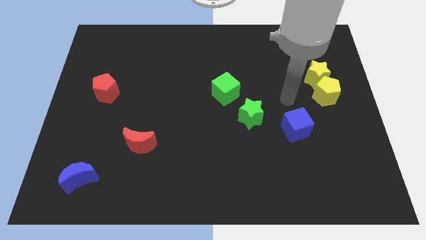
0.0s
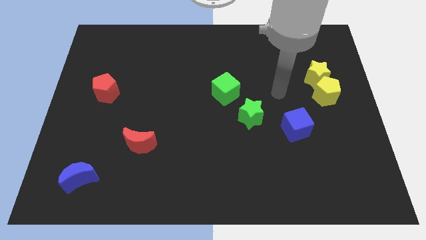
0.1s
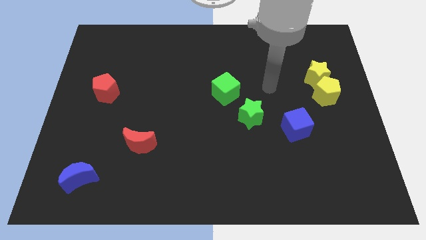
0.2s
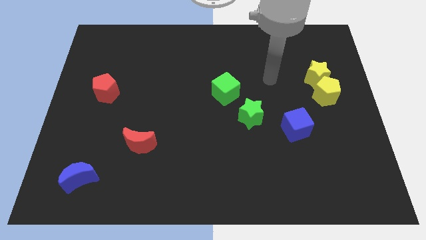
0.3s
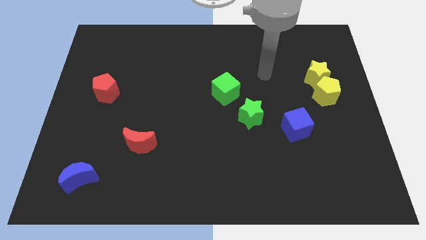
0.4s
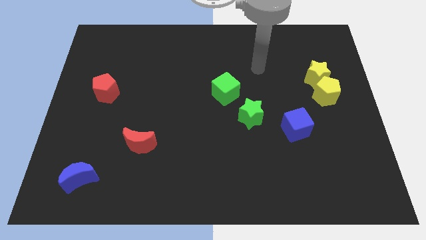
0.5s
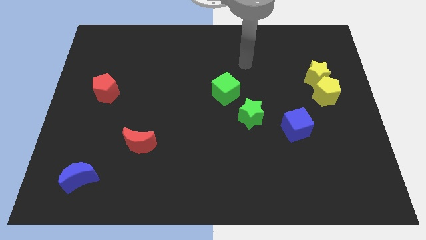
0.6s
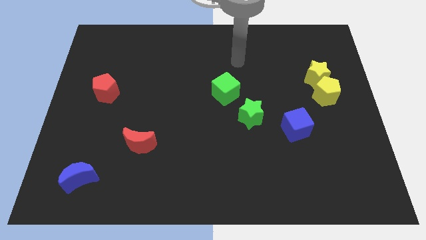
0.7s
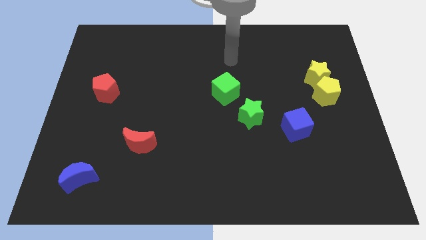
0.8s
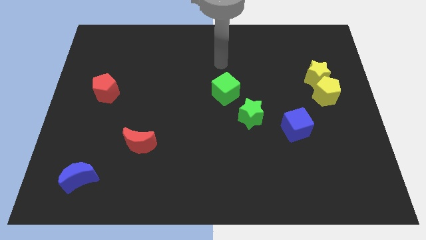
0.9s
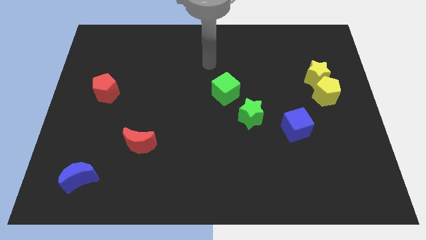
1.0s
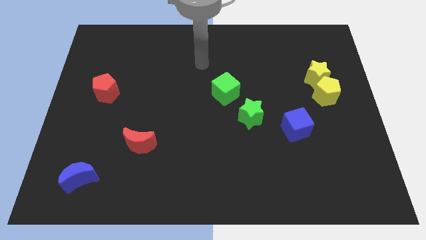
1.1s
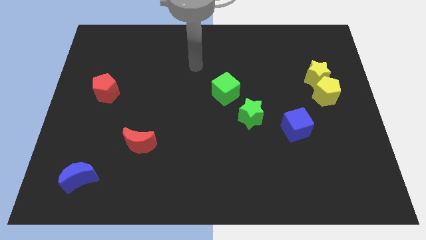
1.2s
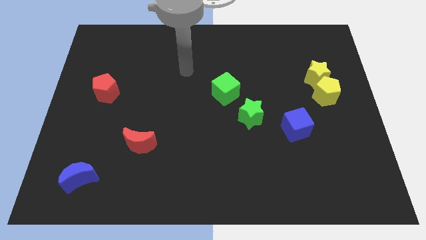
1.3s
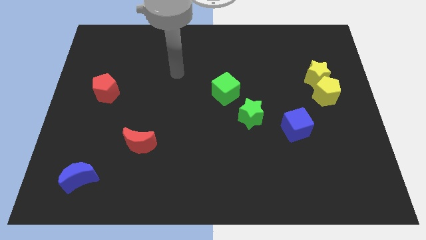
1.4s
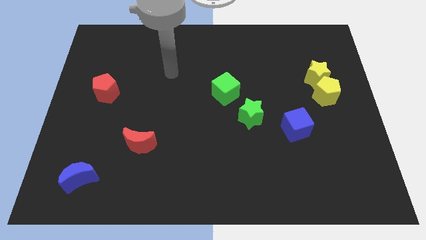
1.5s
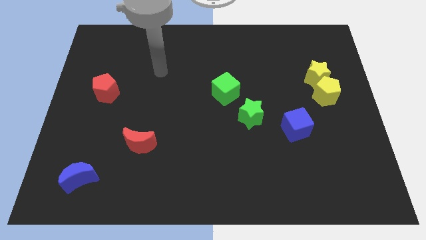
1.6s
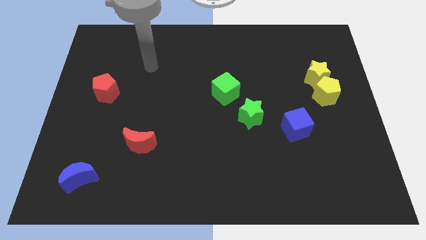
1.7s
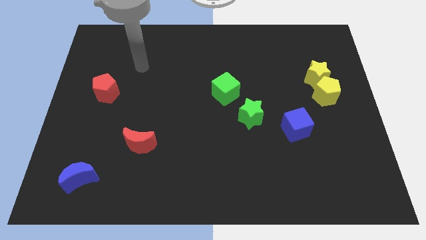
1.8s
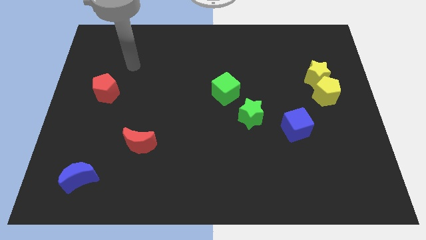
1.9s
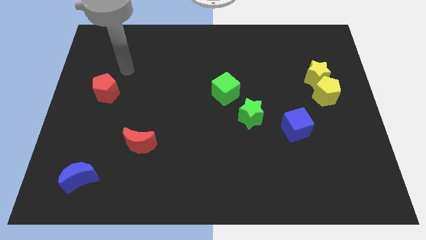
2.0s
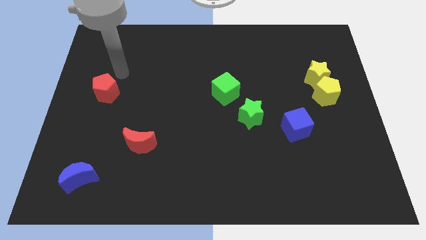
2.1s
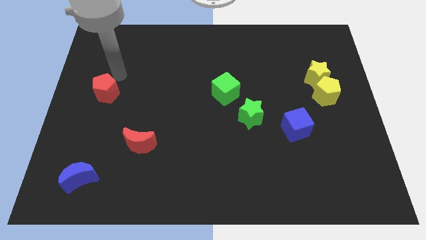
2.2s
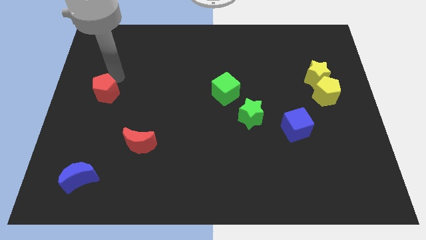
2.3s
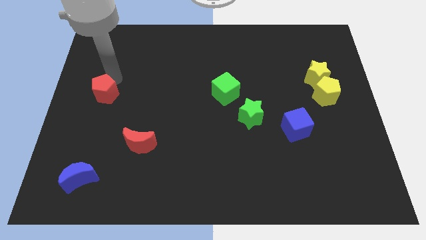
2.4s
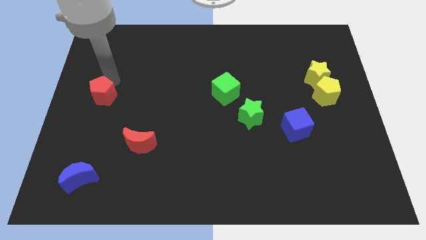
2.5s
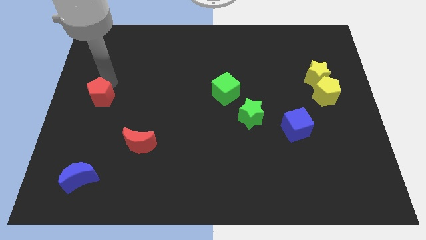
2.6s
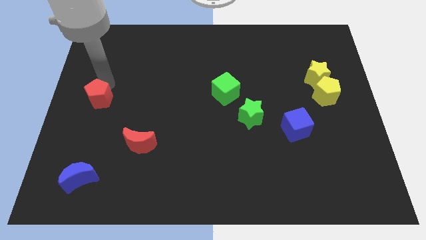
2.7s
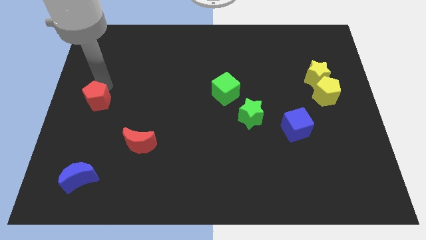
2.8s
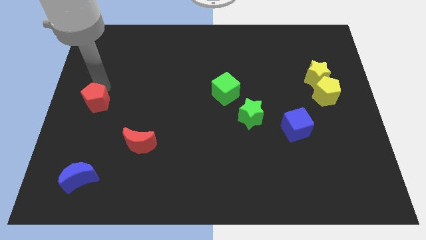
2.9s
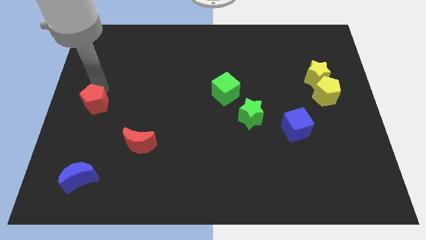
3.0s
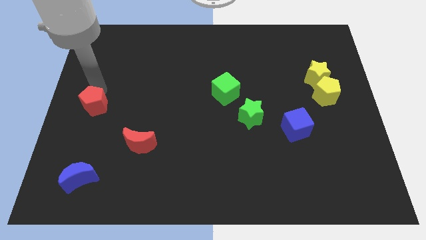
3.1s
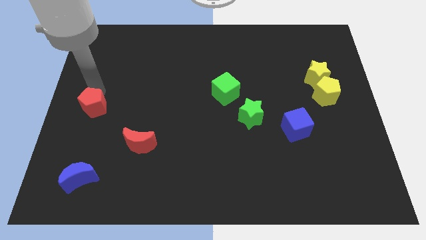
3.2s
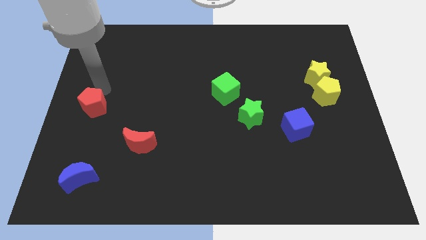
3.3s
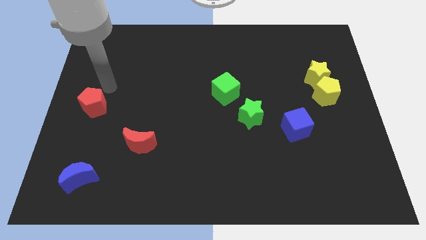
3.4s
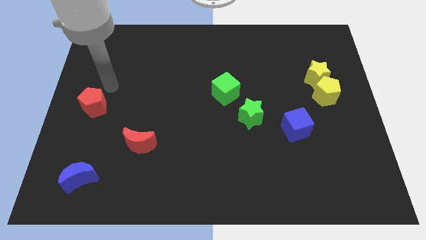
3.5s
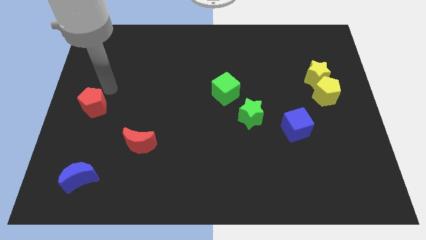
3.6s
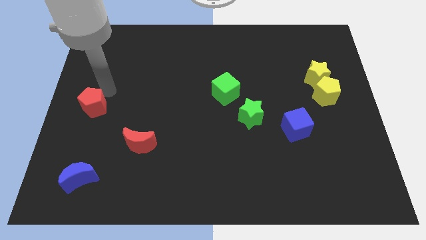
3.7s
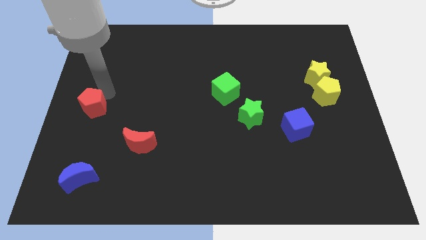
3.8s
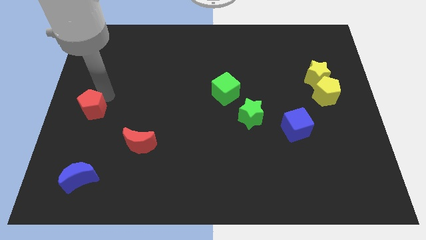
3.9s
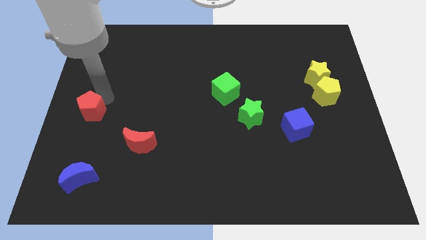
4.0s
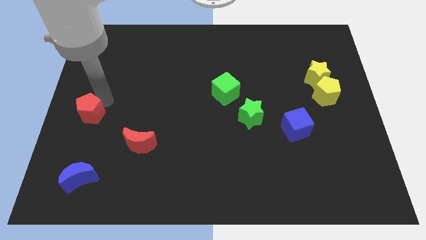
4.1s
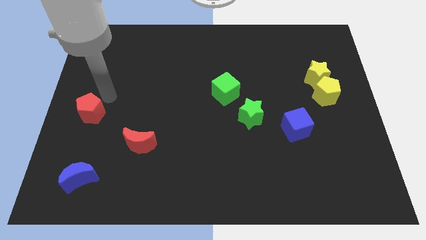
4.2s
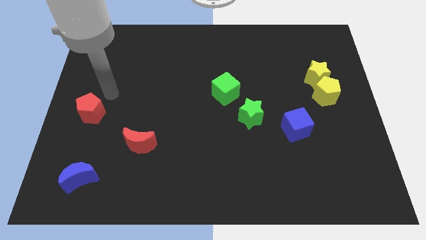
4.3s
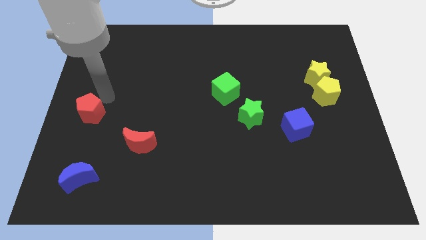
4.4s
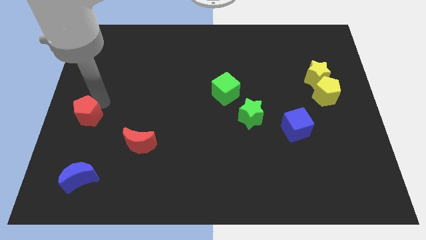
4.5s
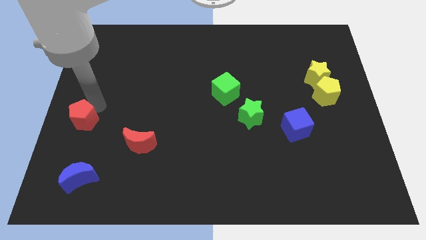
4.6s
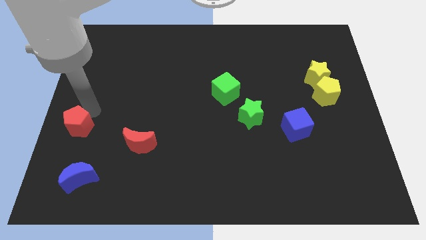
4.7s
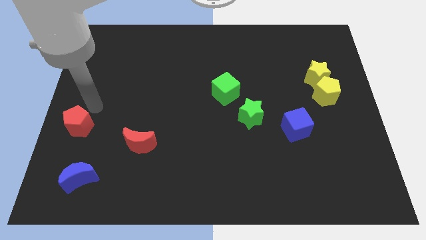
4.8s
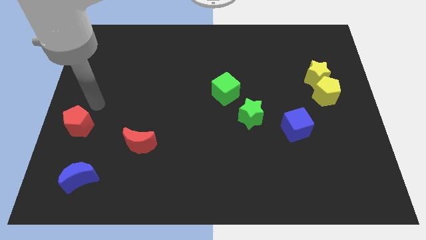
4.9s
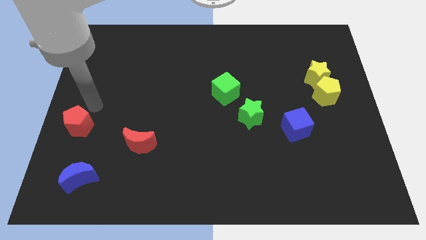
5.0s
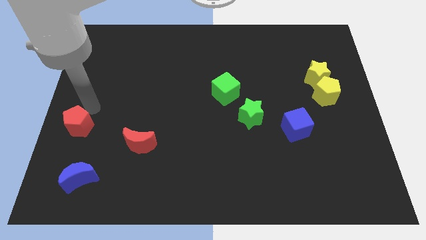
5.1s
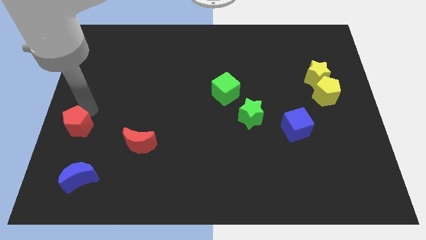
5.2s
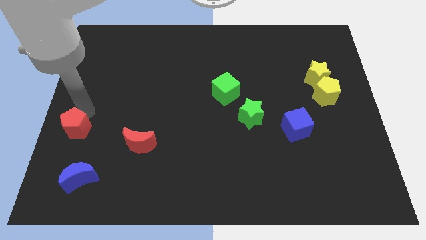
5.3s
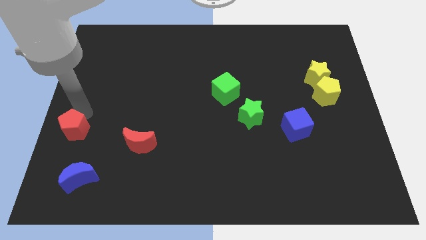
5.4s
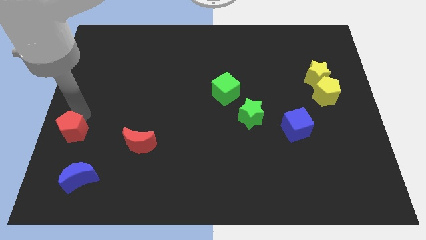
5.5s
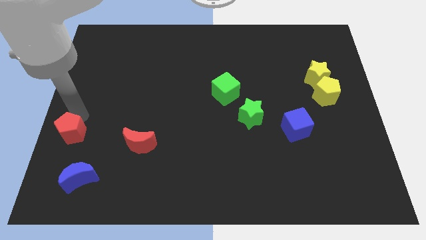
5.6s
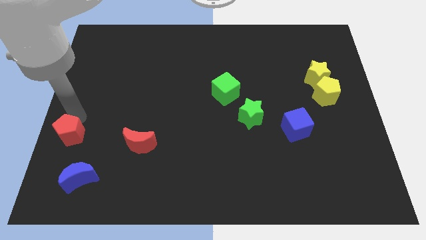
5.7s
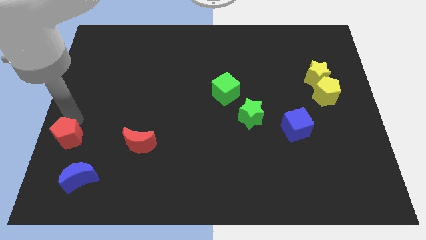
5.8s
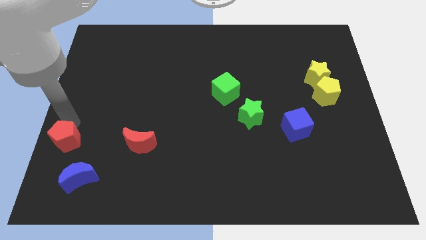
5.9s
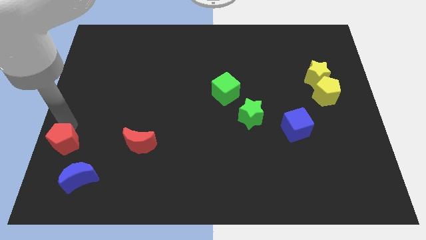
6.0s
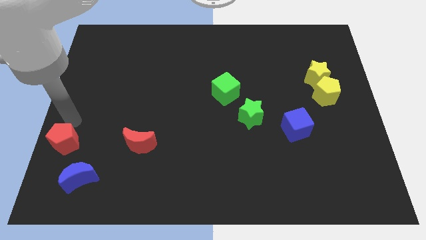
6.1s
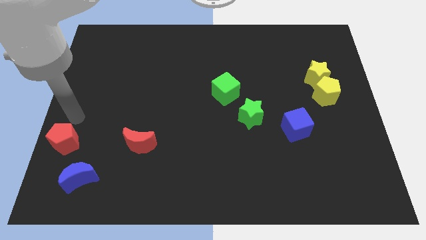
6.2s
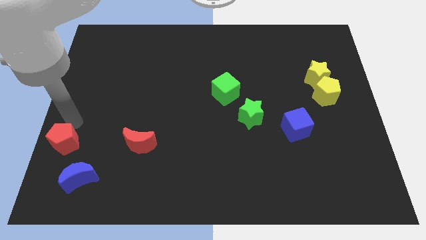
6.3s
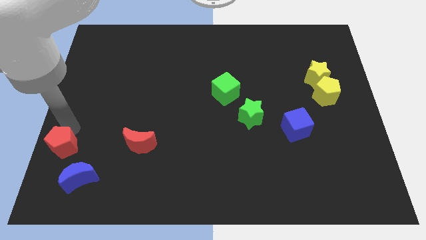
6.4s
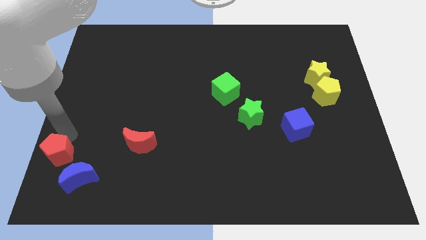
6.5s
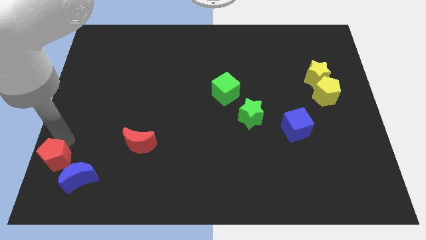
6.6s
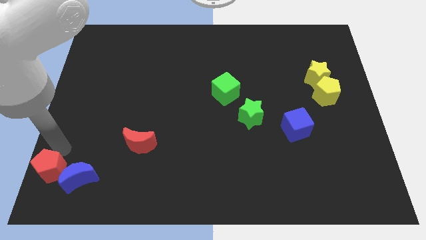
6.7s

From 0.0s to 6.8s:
put the red pentagon to the bottom left of the board
